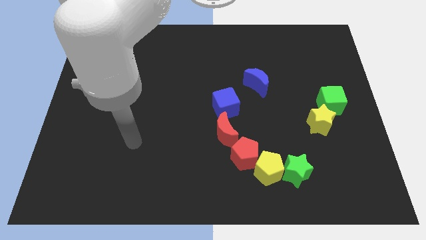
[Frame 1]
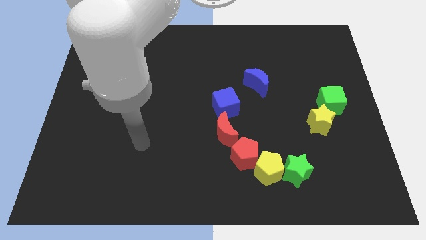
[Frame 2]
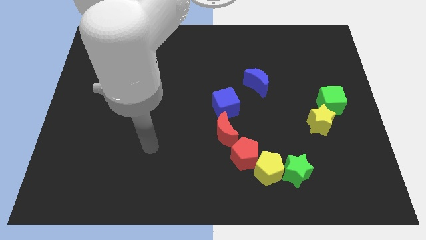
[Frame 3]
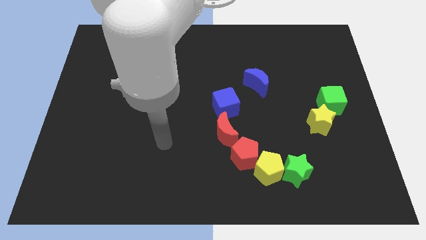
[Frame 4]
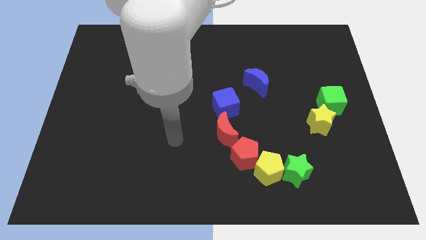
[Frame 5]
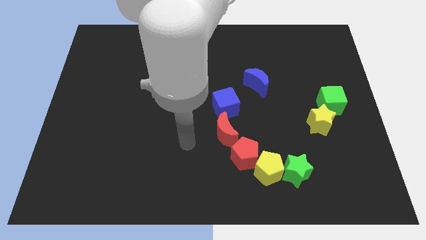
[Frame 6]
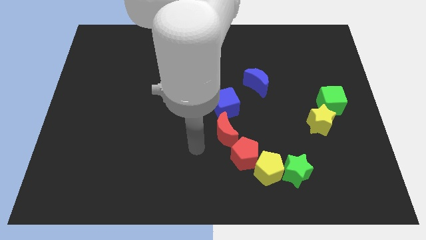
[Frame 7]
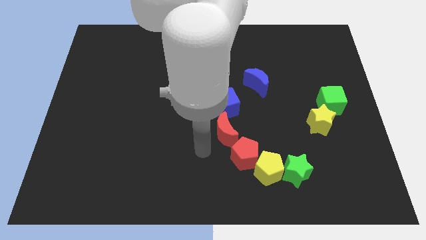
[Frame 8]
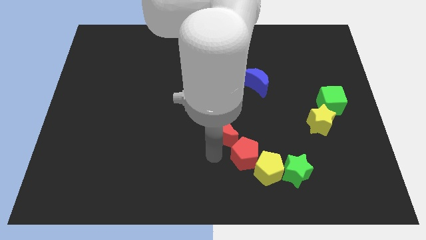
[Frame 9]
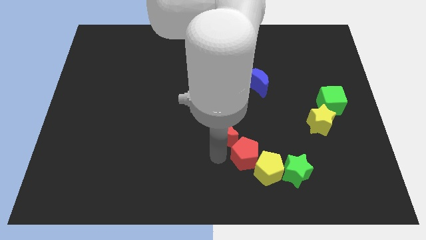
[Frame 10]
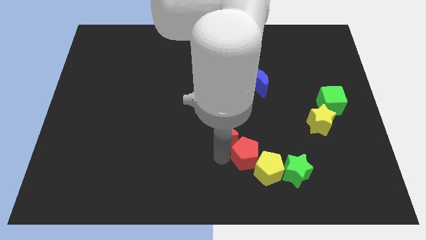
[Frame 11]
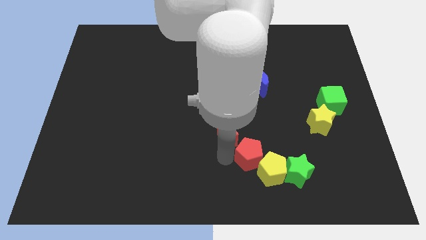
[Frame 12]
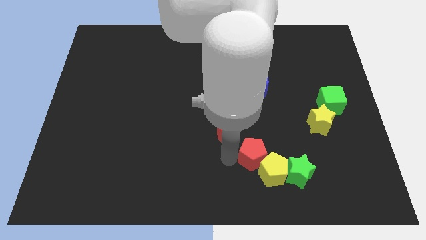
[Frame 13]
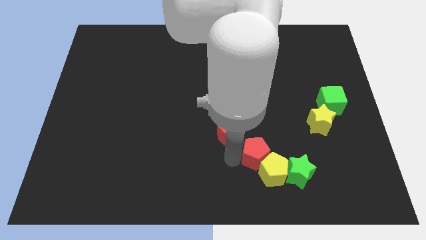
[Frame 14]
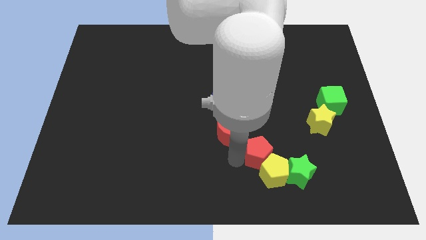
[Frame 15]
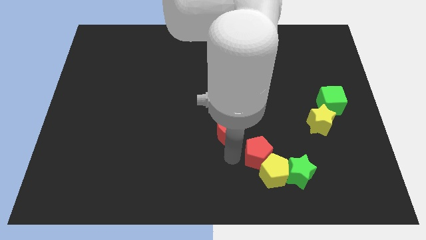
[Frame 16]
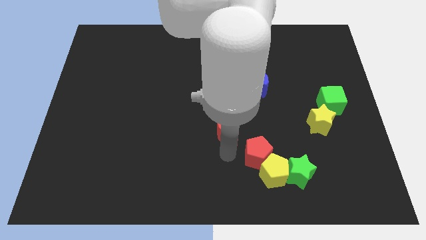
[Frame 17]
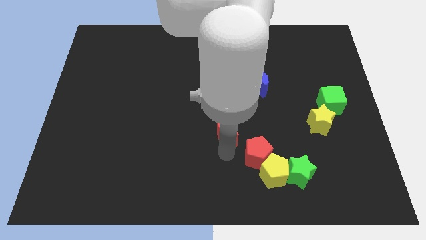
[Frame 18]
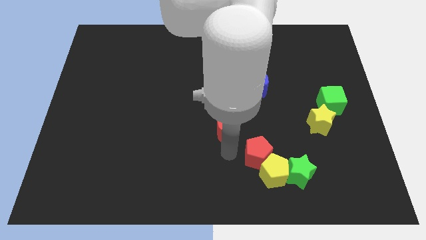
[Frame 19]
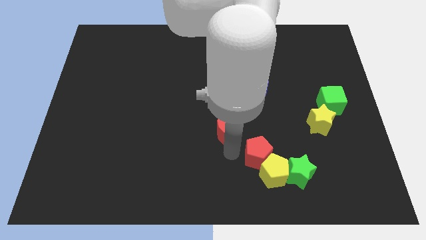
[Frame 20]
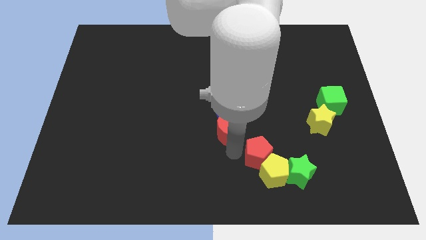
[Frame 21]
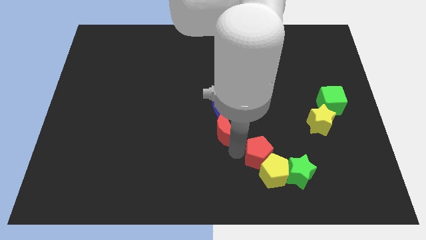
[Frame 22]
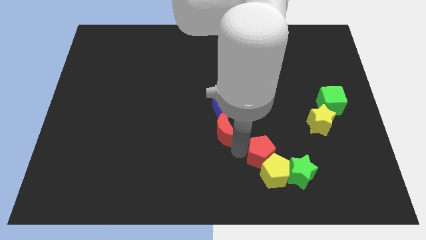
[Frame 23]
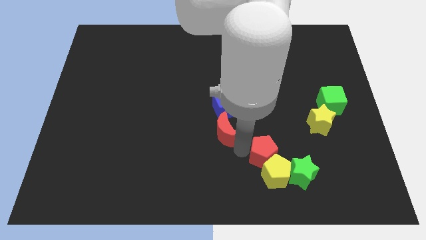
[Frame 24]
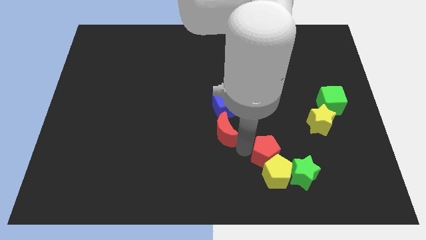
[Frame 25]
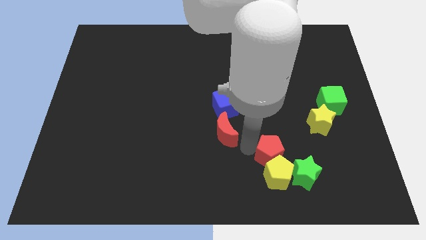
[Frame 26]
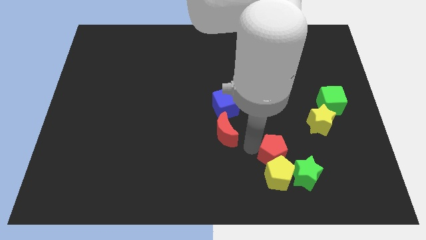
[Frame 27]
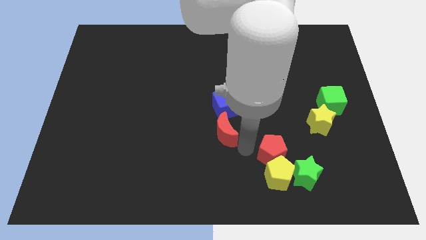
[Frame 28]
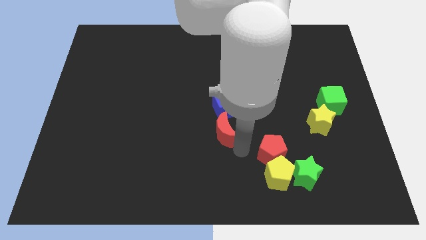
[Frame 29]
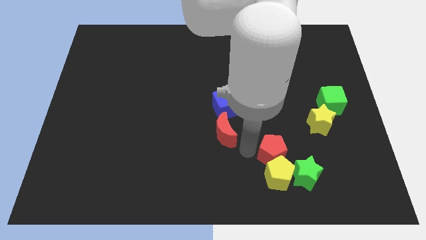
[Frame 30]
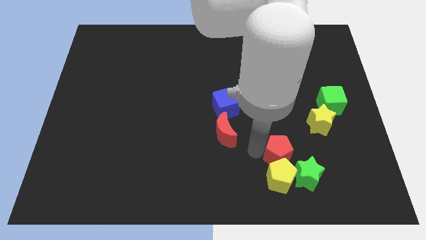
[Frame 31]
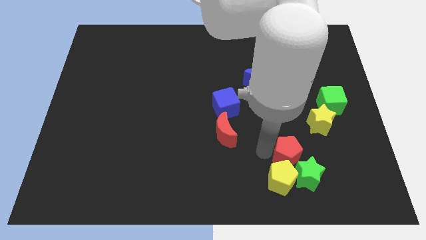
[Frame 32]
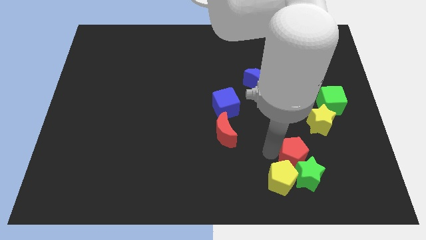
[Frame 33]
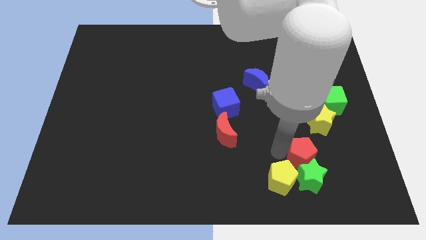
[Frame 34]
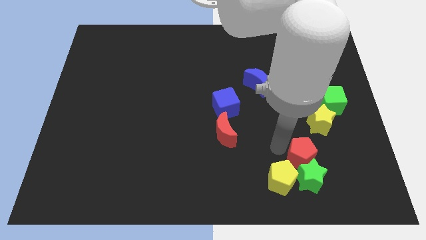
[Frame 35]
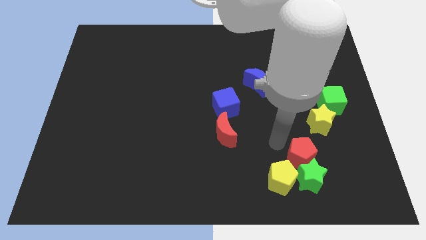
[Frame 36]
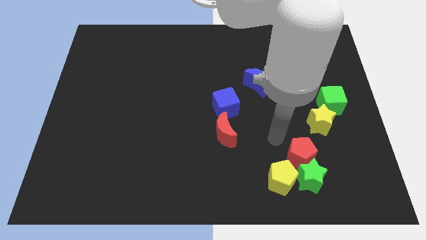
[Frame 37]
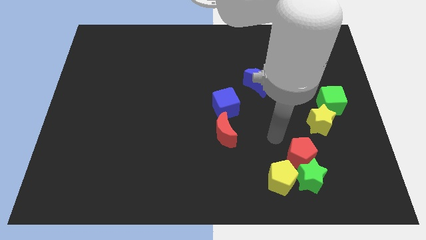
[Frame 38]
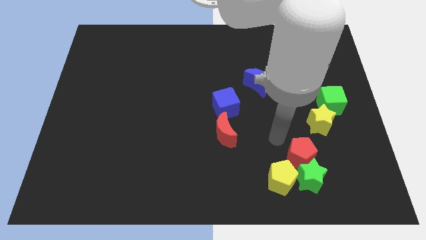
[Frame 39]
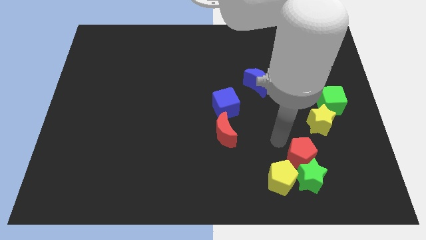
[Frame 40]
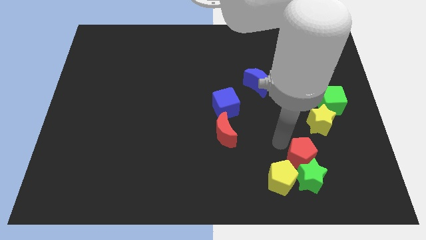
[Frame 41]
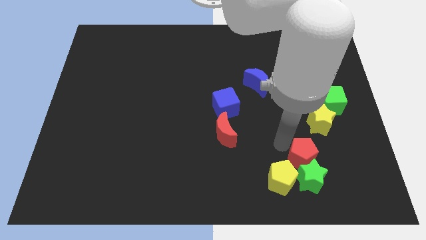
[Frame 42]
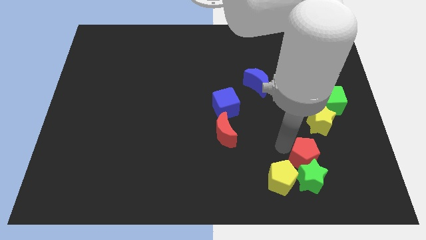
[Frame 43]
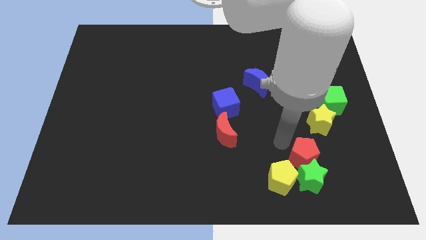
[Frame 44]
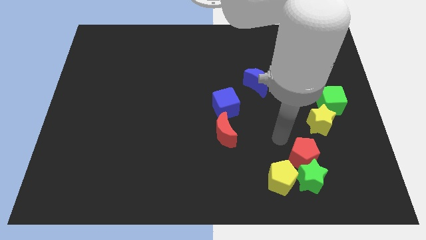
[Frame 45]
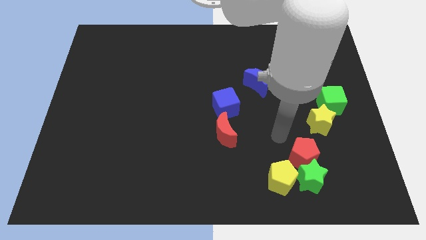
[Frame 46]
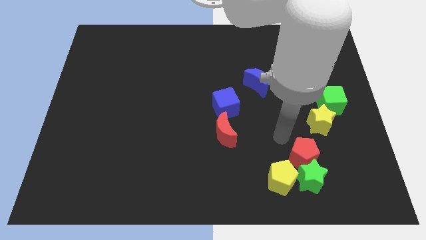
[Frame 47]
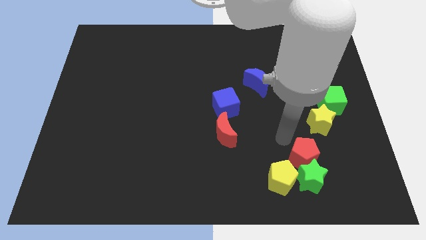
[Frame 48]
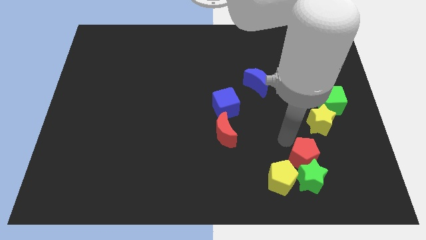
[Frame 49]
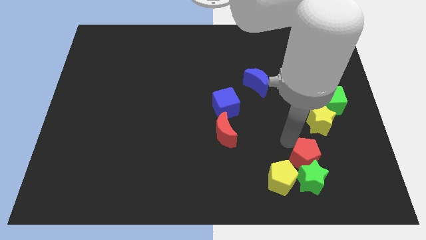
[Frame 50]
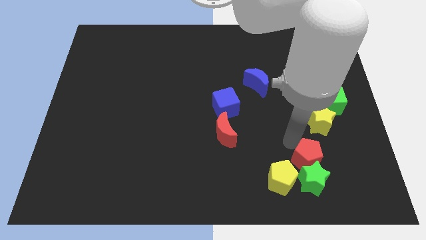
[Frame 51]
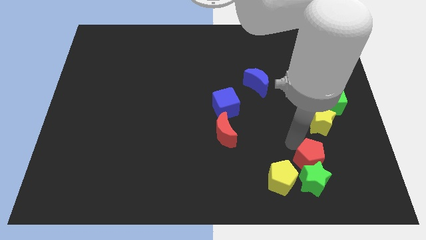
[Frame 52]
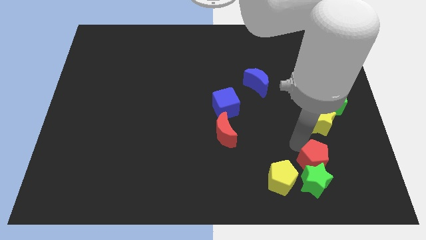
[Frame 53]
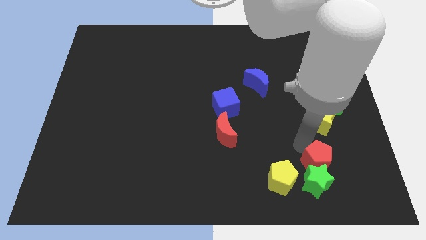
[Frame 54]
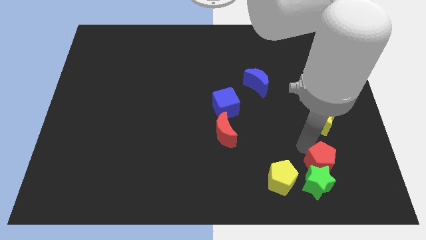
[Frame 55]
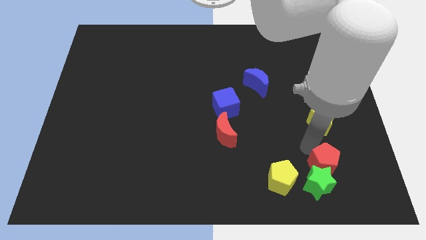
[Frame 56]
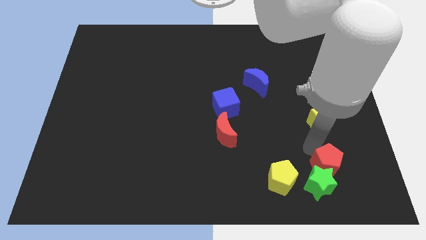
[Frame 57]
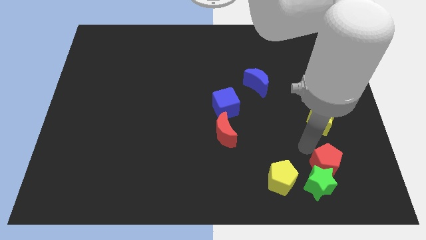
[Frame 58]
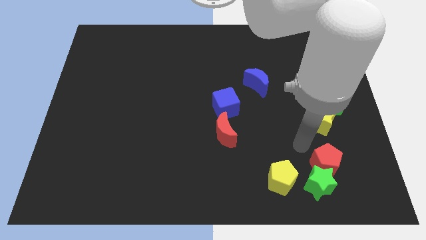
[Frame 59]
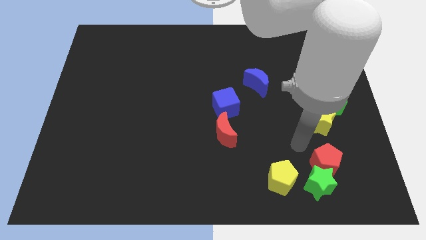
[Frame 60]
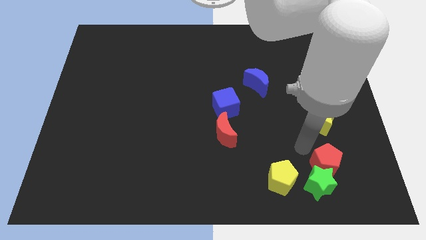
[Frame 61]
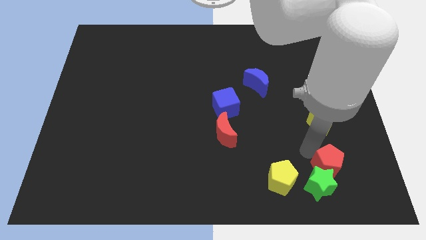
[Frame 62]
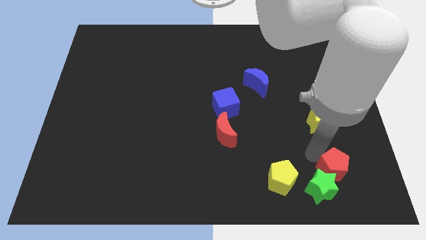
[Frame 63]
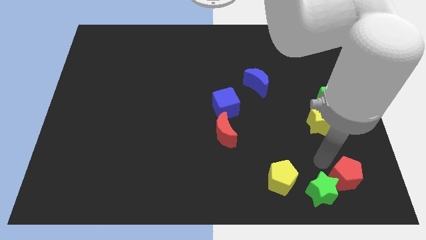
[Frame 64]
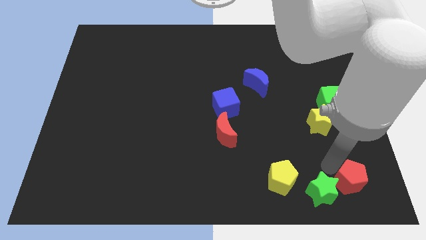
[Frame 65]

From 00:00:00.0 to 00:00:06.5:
put the red pentagon to the lower right corner

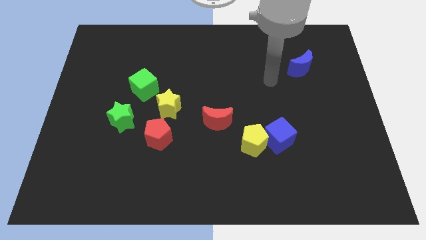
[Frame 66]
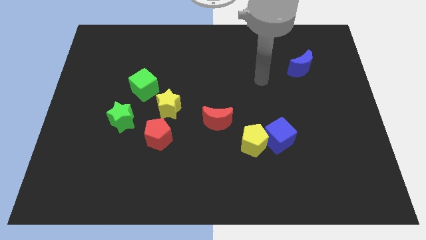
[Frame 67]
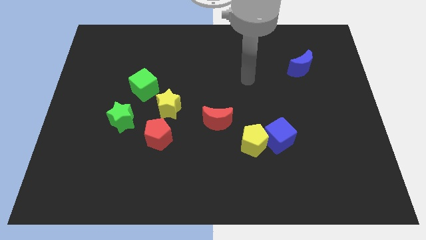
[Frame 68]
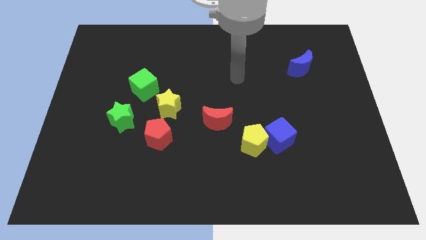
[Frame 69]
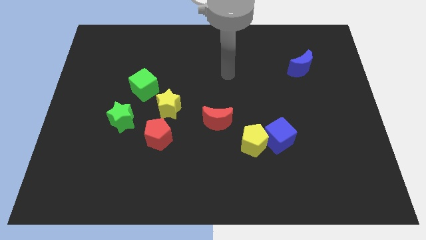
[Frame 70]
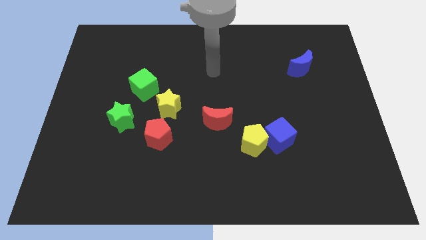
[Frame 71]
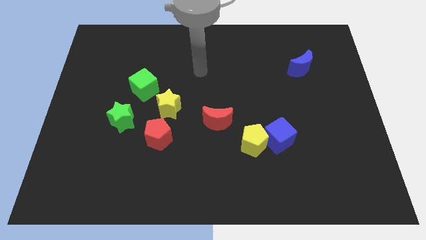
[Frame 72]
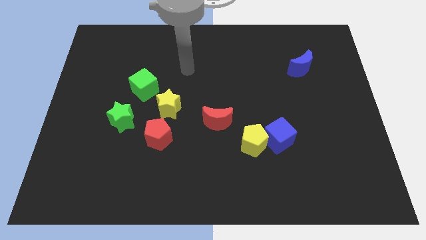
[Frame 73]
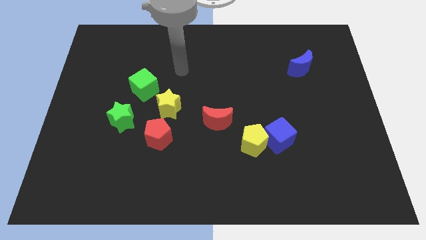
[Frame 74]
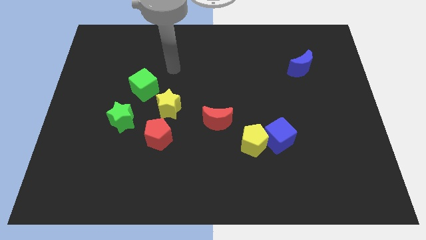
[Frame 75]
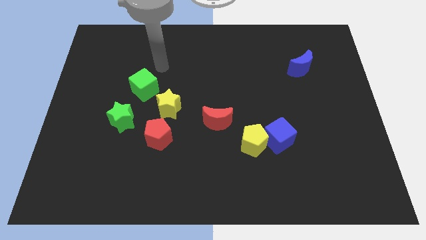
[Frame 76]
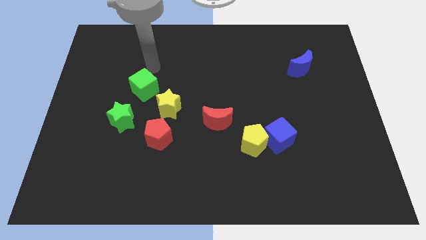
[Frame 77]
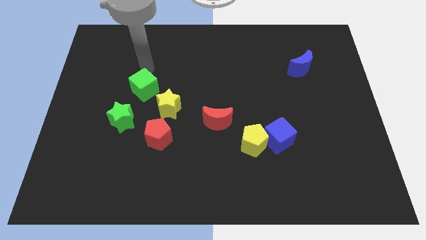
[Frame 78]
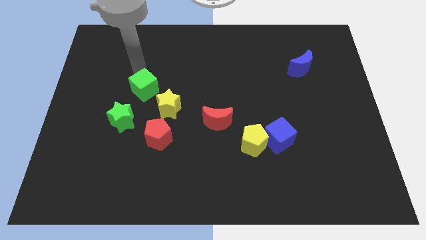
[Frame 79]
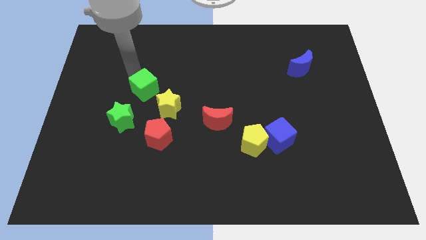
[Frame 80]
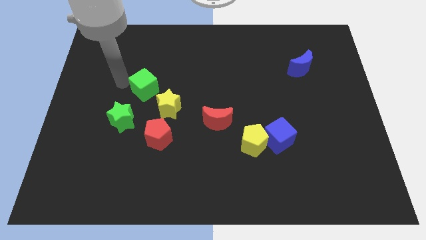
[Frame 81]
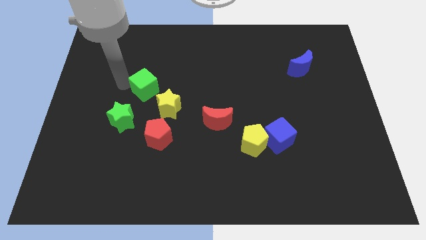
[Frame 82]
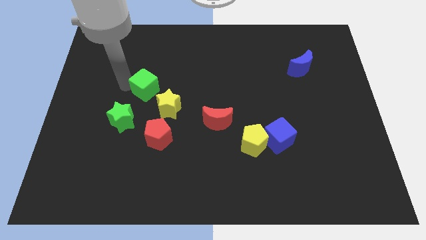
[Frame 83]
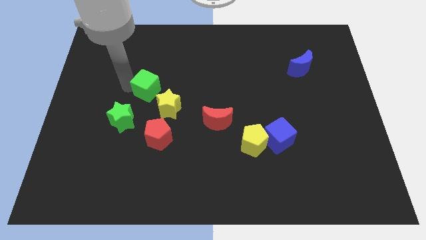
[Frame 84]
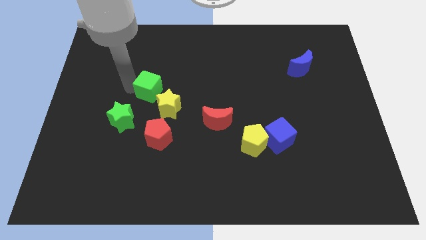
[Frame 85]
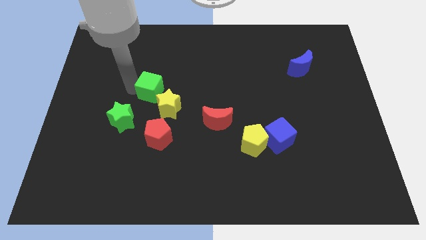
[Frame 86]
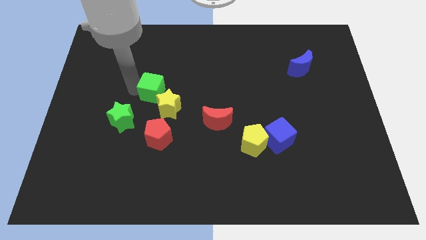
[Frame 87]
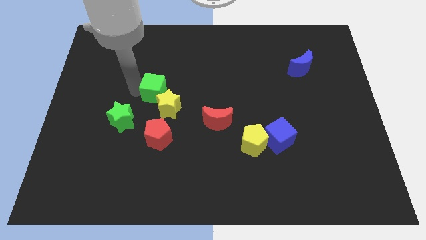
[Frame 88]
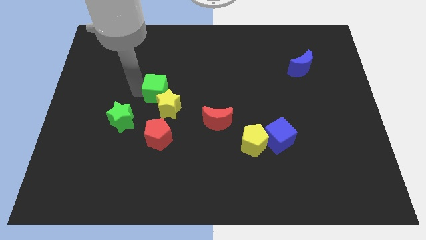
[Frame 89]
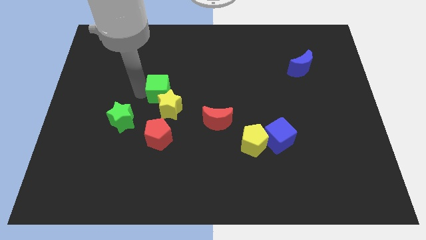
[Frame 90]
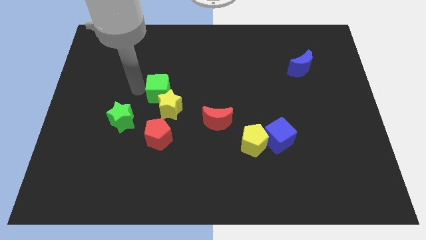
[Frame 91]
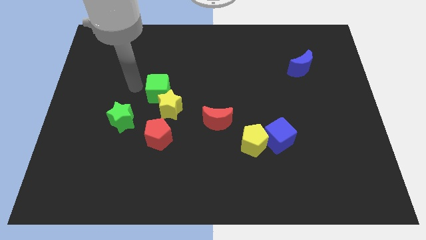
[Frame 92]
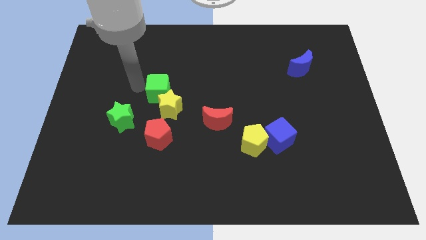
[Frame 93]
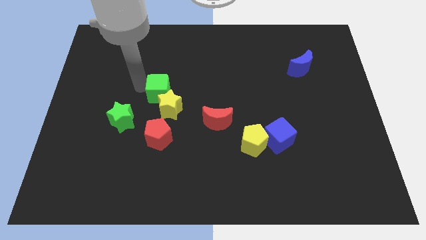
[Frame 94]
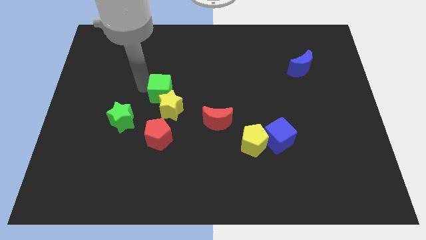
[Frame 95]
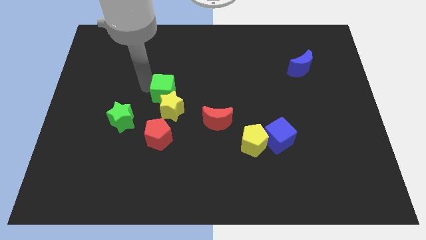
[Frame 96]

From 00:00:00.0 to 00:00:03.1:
push the green cube to the middle
